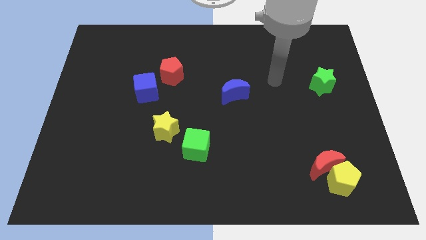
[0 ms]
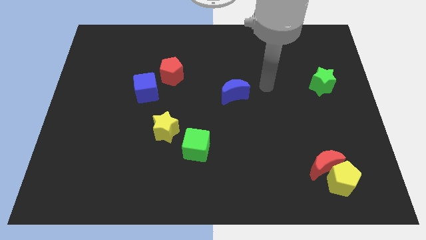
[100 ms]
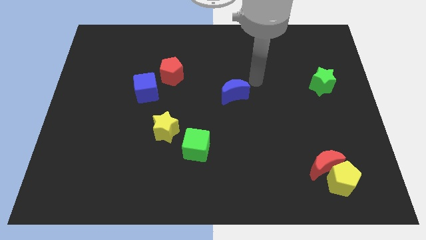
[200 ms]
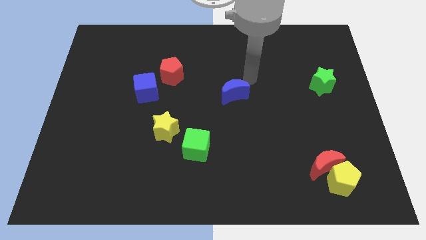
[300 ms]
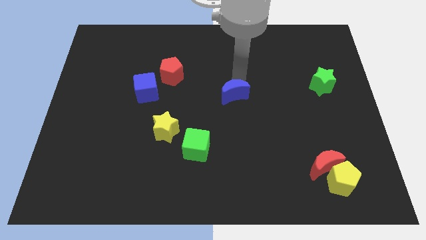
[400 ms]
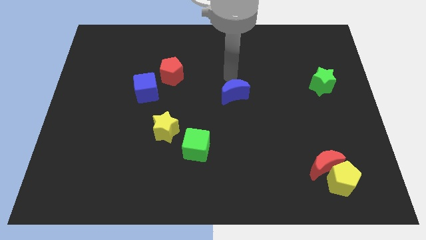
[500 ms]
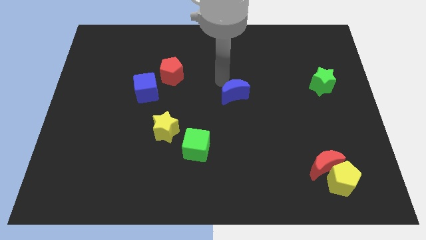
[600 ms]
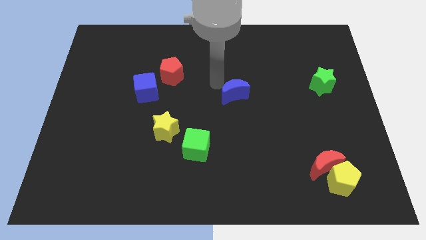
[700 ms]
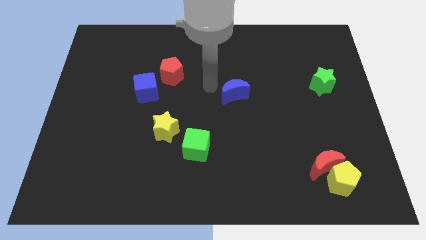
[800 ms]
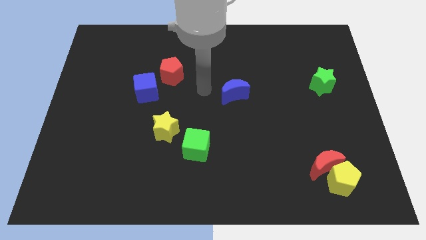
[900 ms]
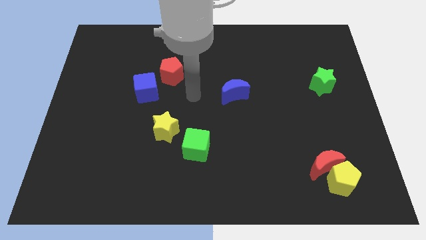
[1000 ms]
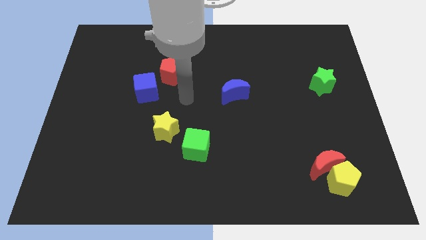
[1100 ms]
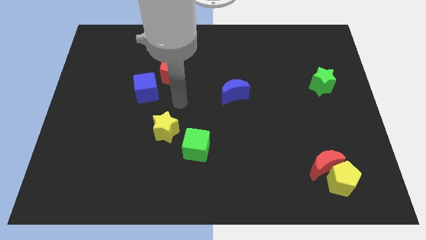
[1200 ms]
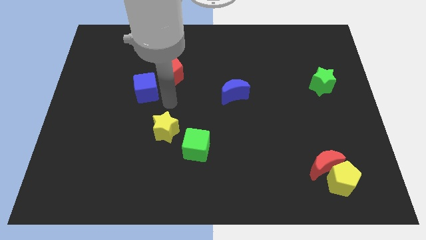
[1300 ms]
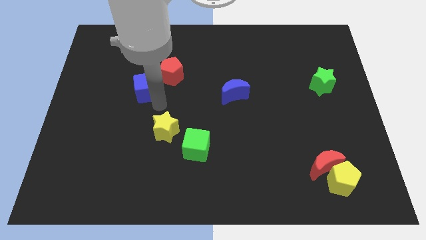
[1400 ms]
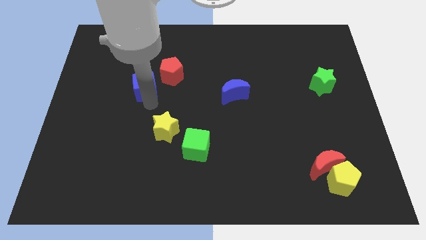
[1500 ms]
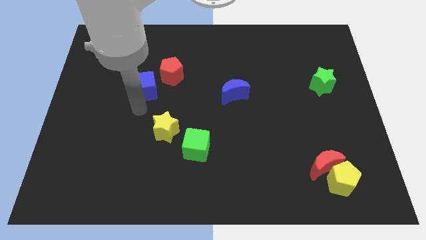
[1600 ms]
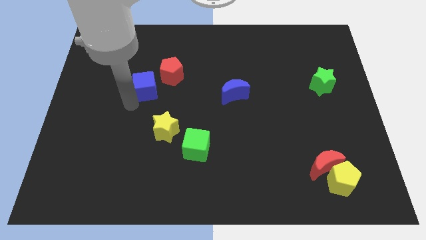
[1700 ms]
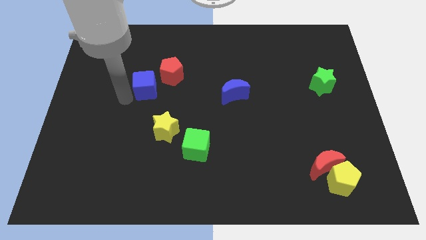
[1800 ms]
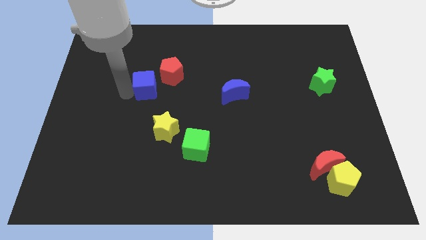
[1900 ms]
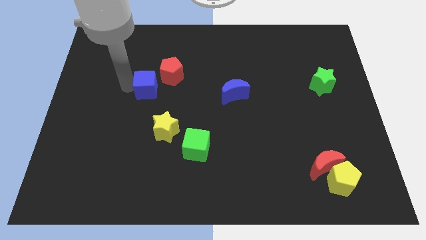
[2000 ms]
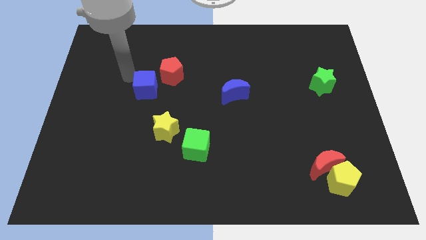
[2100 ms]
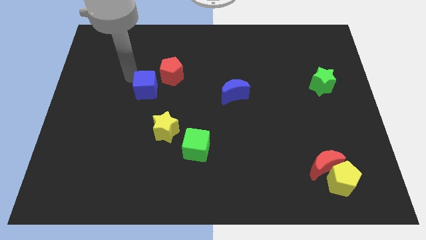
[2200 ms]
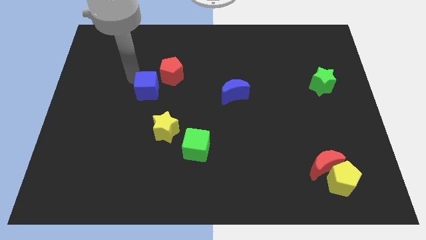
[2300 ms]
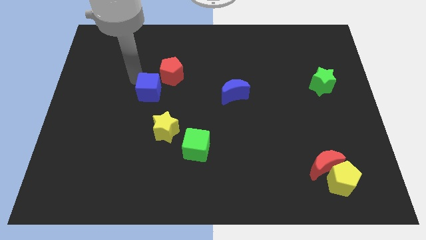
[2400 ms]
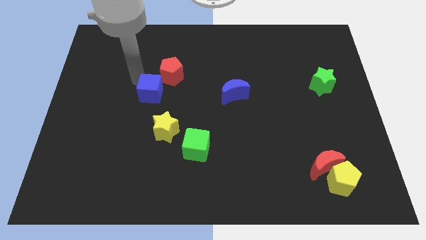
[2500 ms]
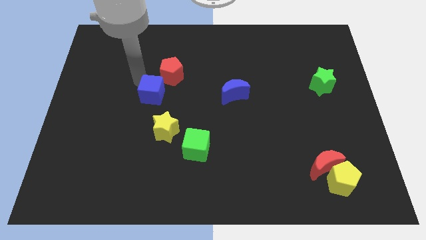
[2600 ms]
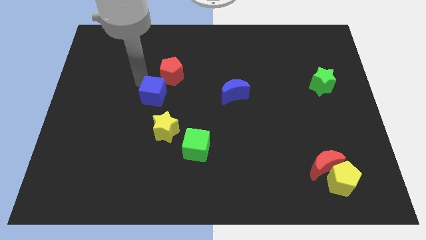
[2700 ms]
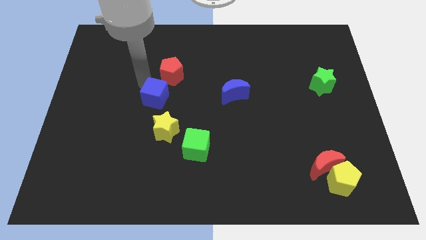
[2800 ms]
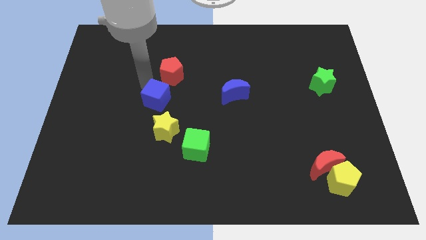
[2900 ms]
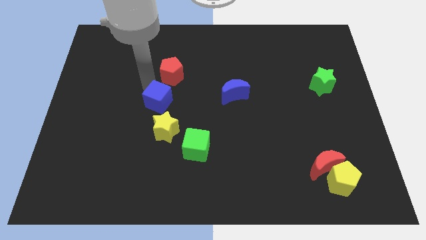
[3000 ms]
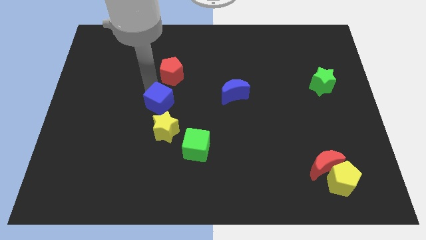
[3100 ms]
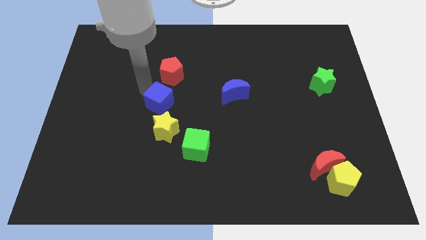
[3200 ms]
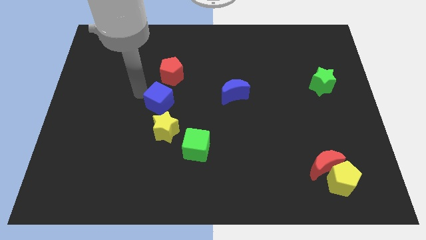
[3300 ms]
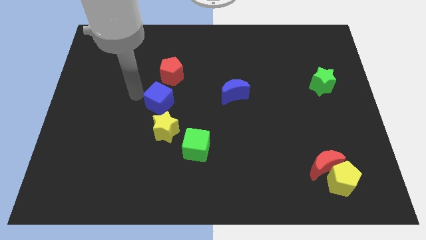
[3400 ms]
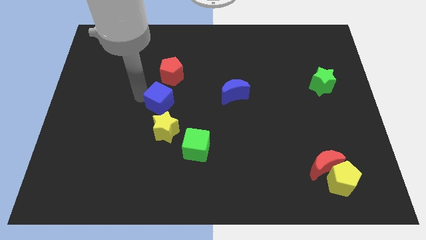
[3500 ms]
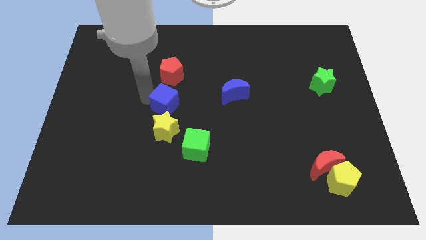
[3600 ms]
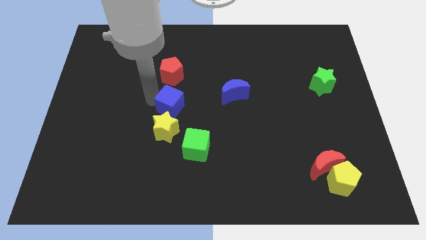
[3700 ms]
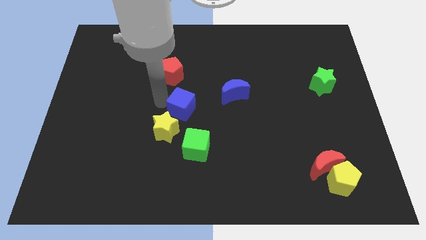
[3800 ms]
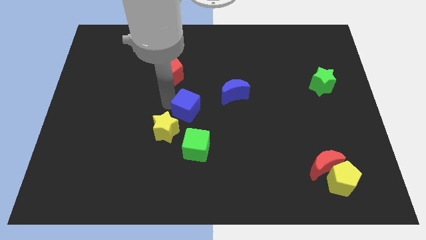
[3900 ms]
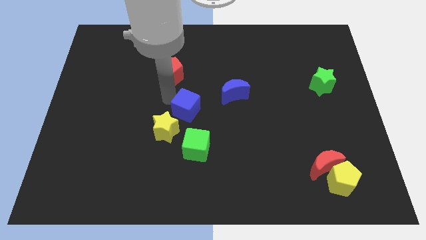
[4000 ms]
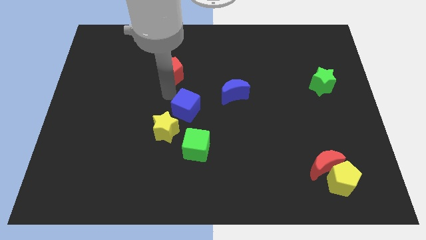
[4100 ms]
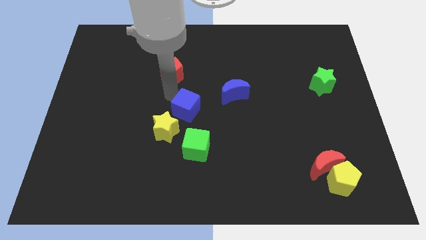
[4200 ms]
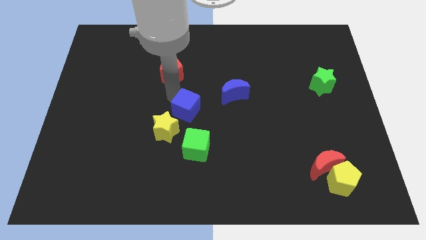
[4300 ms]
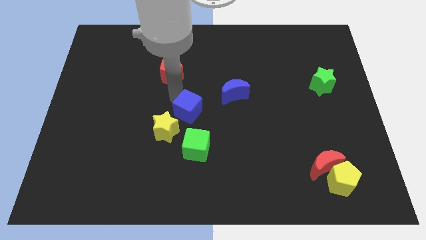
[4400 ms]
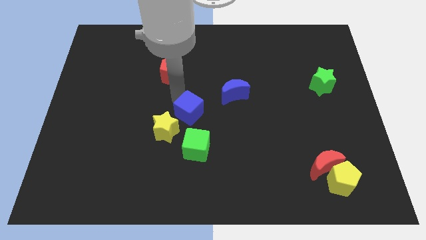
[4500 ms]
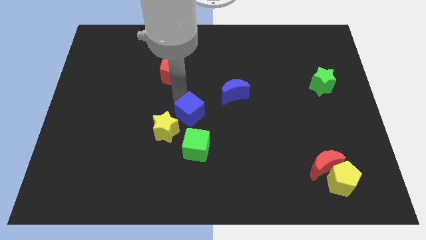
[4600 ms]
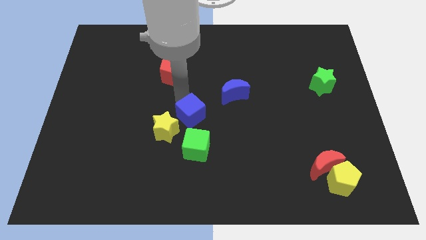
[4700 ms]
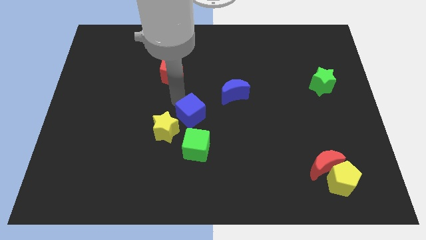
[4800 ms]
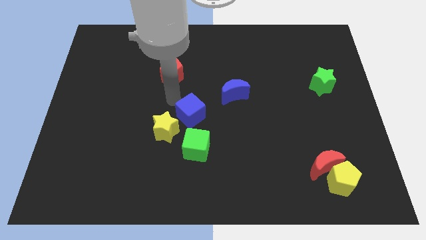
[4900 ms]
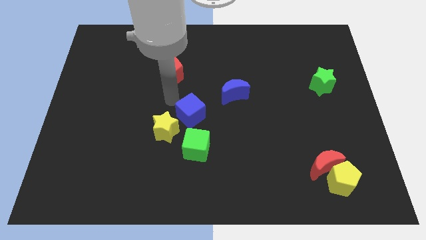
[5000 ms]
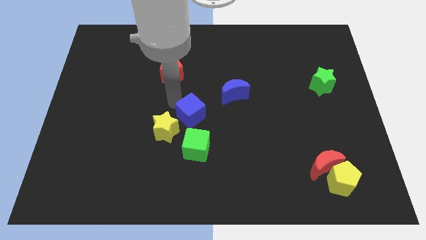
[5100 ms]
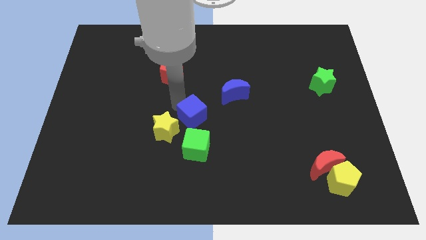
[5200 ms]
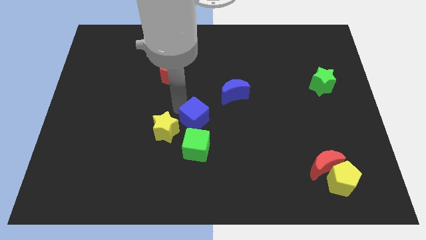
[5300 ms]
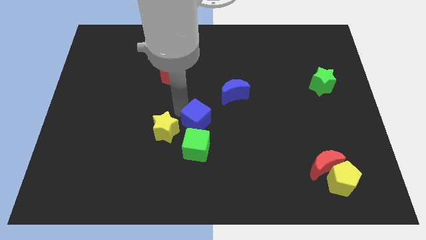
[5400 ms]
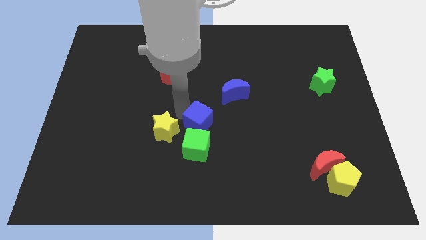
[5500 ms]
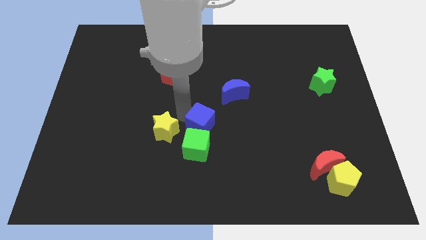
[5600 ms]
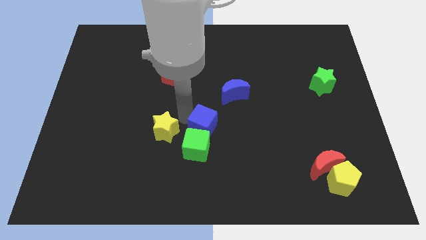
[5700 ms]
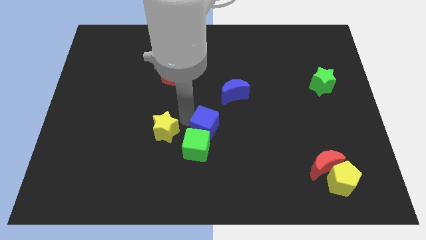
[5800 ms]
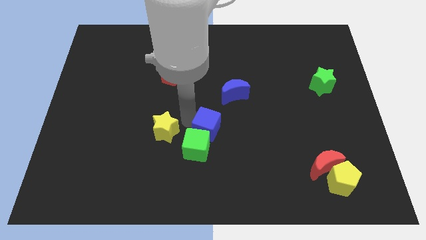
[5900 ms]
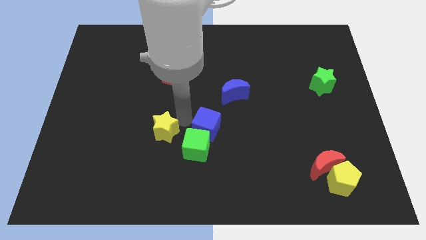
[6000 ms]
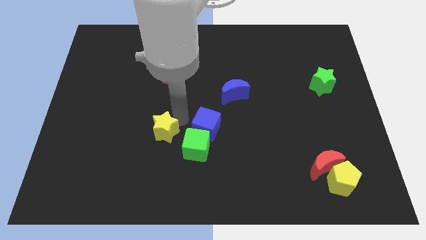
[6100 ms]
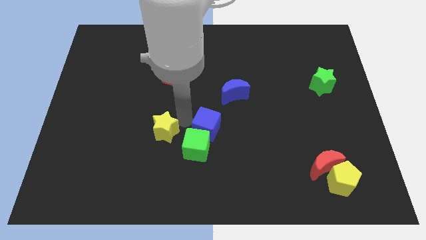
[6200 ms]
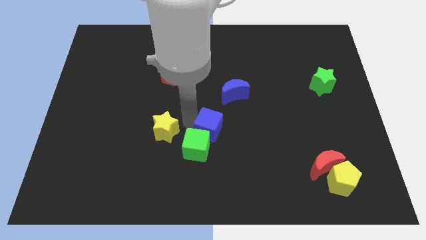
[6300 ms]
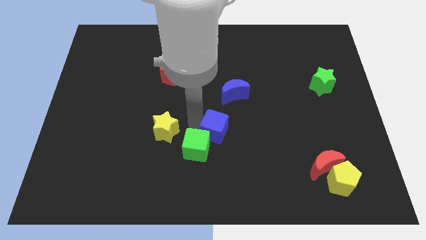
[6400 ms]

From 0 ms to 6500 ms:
slide the blue cube right of the green cube

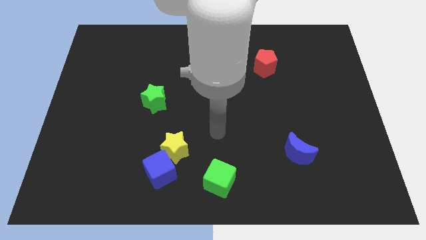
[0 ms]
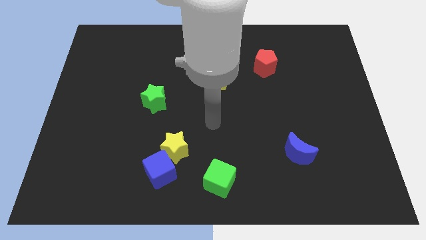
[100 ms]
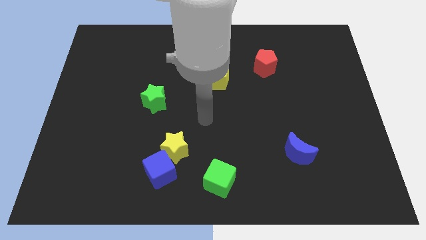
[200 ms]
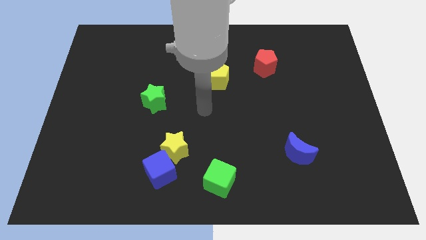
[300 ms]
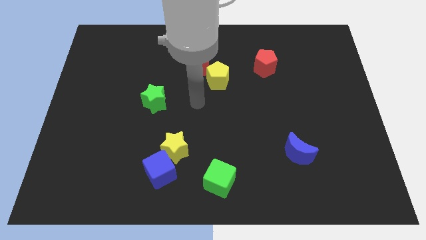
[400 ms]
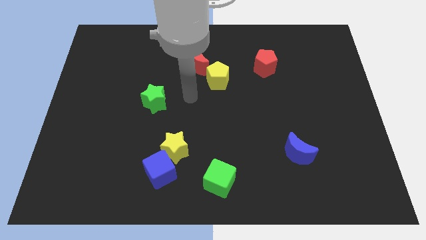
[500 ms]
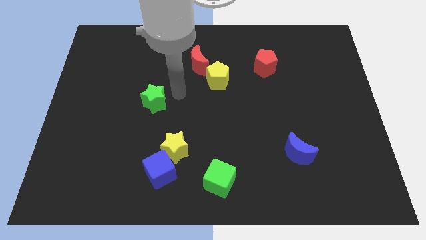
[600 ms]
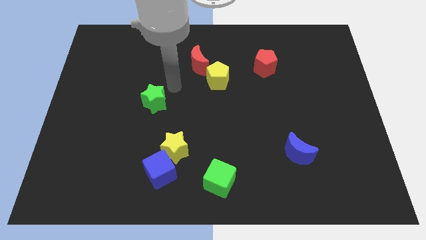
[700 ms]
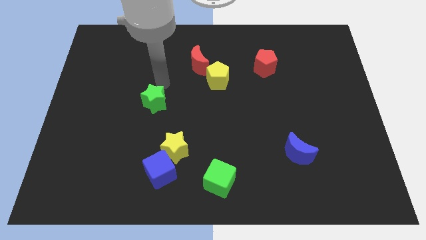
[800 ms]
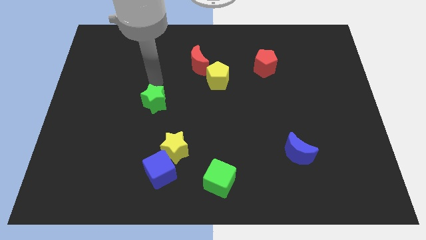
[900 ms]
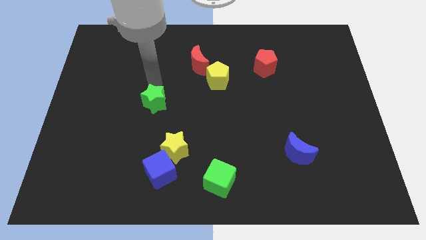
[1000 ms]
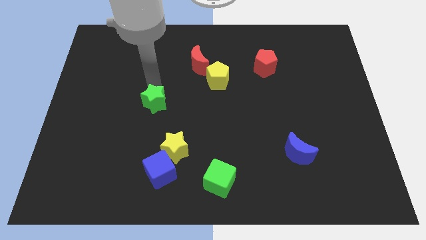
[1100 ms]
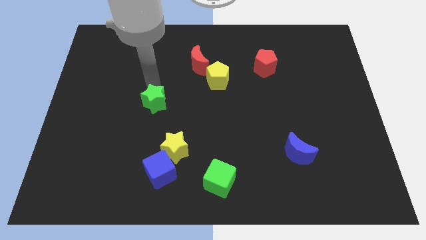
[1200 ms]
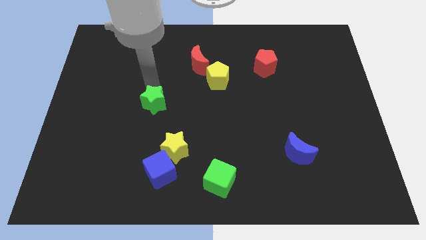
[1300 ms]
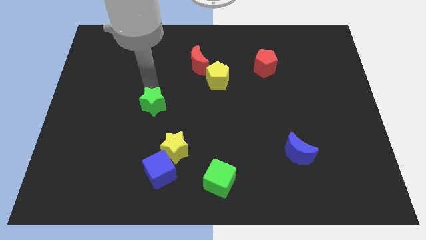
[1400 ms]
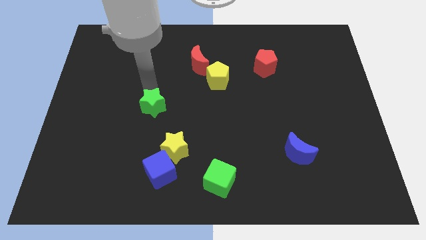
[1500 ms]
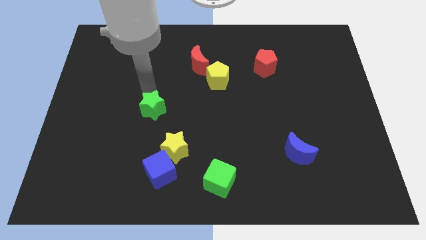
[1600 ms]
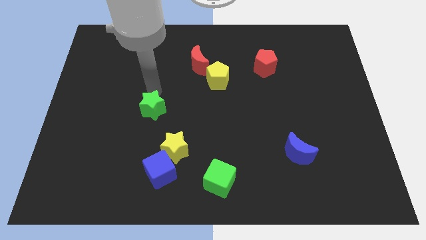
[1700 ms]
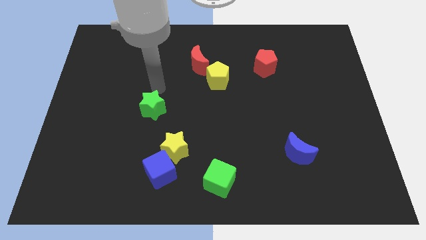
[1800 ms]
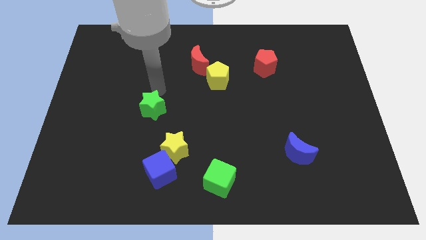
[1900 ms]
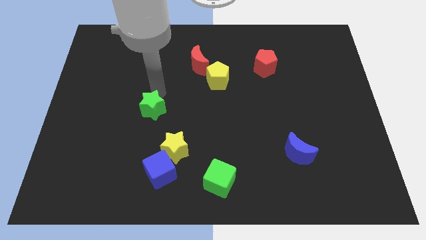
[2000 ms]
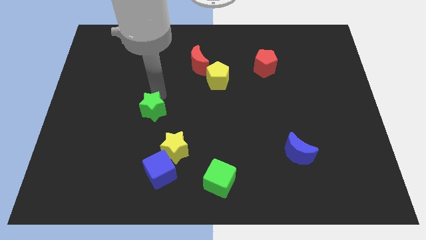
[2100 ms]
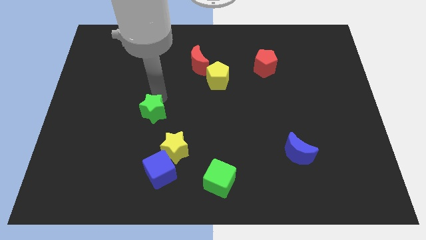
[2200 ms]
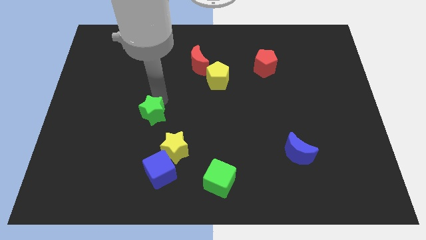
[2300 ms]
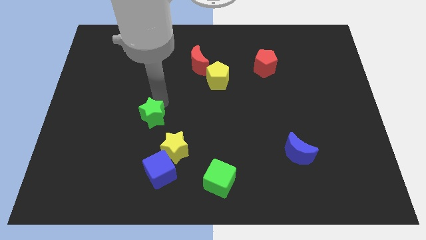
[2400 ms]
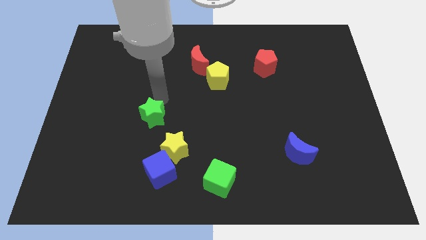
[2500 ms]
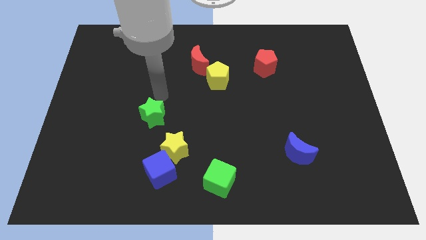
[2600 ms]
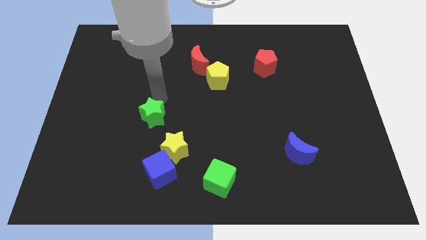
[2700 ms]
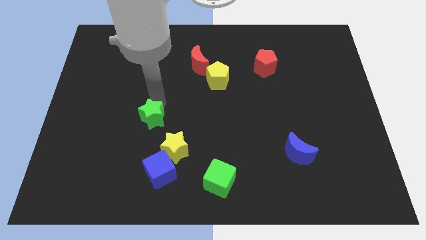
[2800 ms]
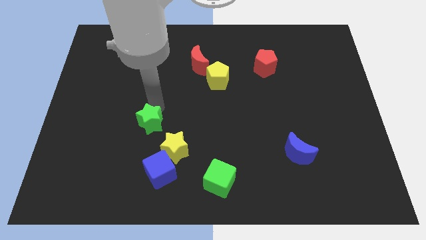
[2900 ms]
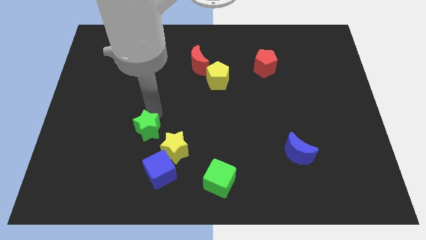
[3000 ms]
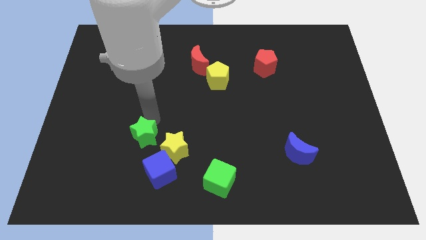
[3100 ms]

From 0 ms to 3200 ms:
move the green star to the top left side of the blue cube
